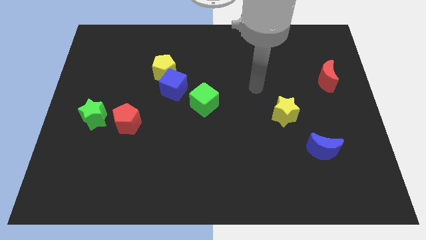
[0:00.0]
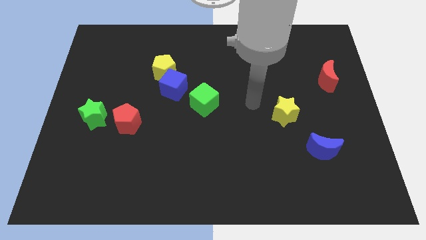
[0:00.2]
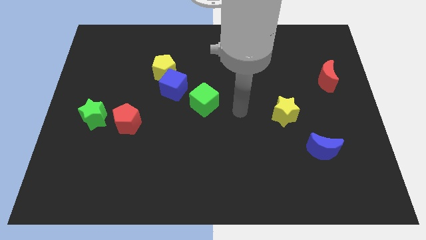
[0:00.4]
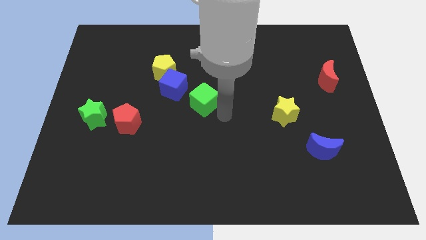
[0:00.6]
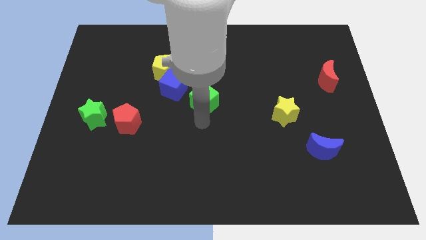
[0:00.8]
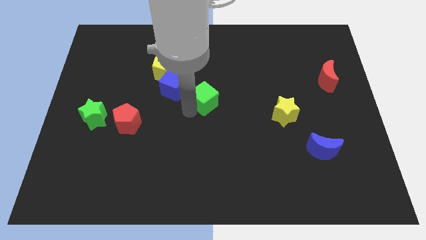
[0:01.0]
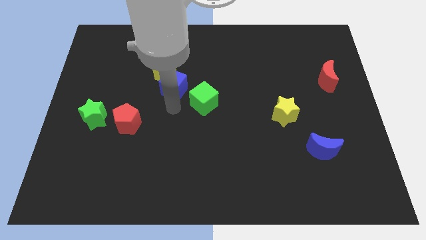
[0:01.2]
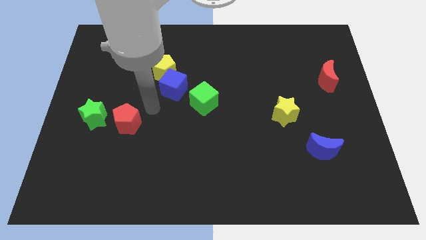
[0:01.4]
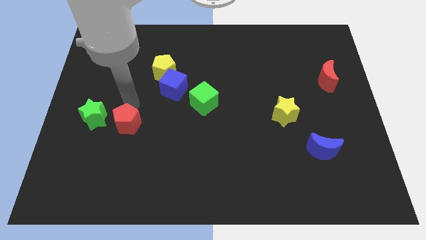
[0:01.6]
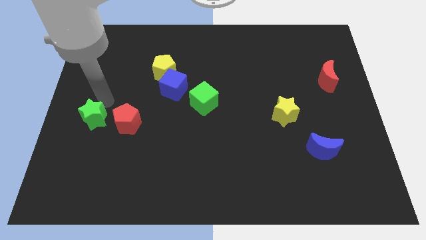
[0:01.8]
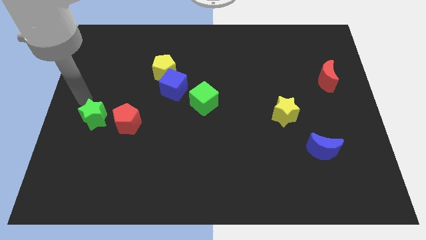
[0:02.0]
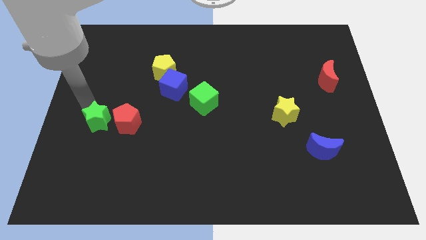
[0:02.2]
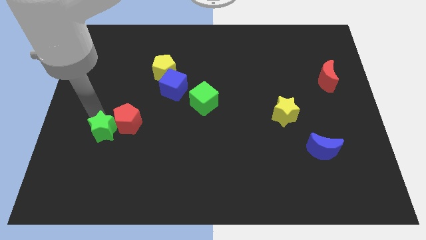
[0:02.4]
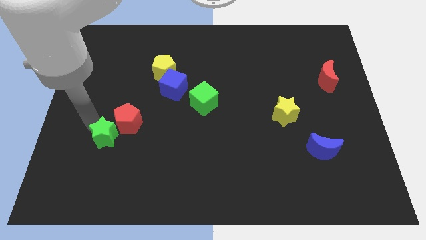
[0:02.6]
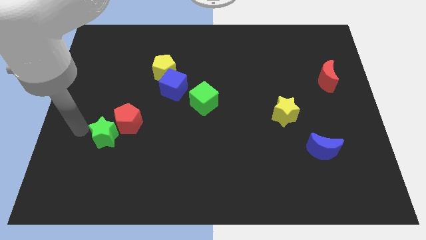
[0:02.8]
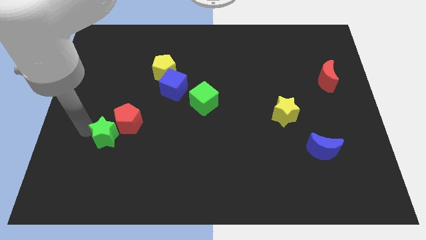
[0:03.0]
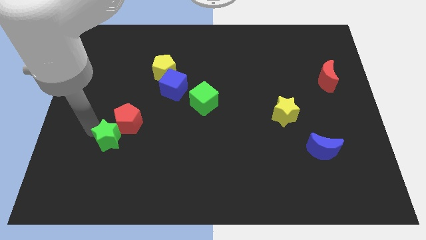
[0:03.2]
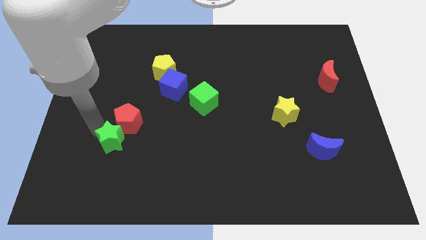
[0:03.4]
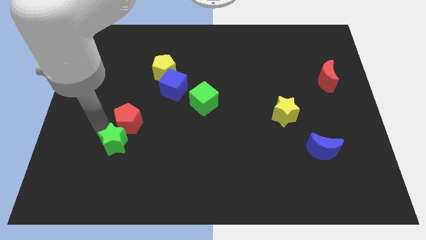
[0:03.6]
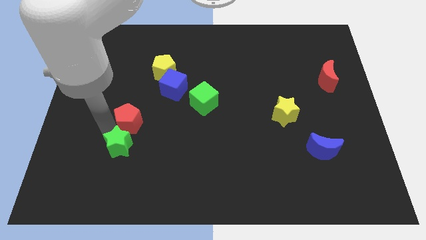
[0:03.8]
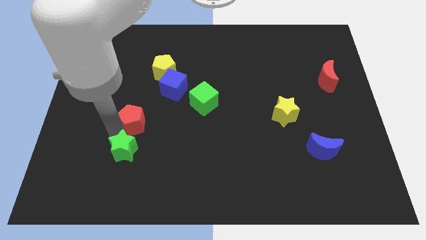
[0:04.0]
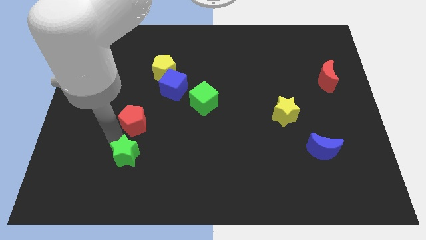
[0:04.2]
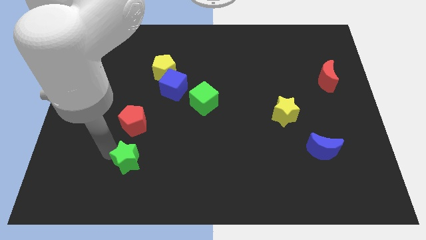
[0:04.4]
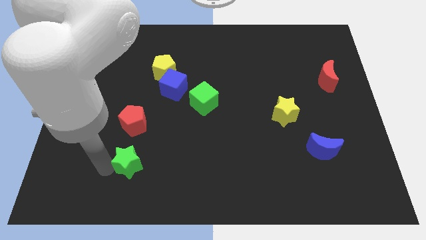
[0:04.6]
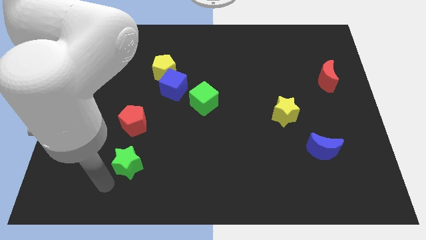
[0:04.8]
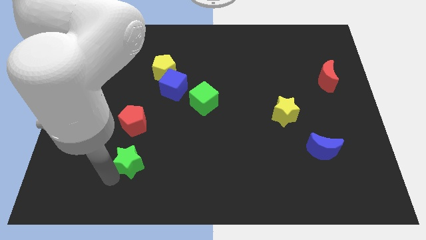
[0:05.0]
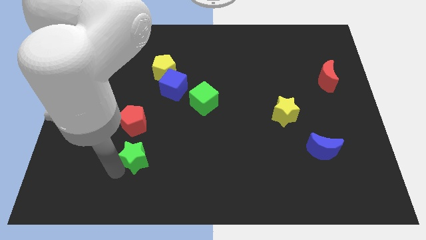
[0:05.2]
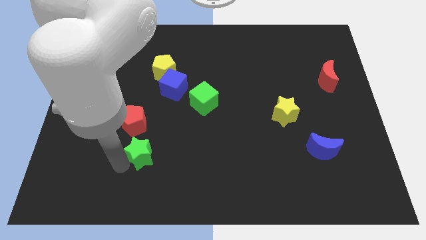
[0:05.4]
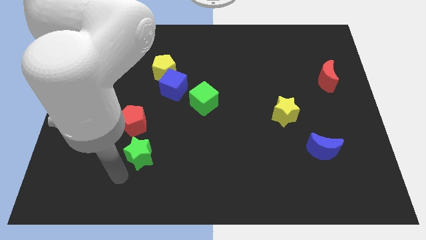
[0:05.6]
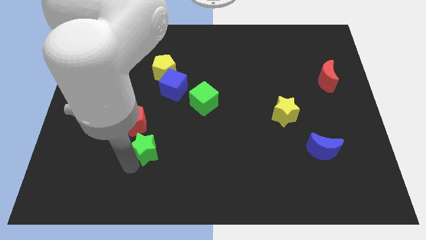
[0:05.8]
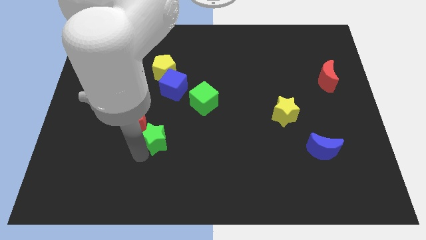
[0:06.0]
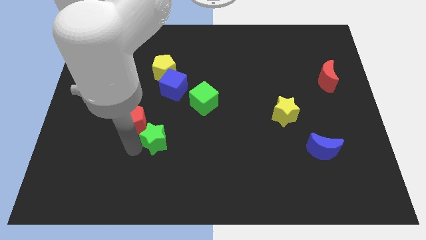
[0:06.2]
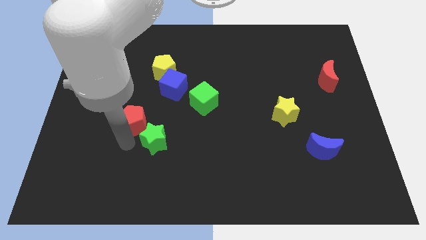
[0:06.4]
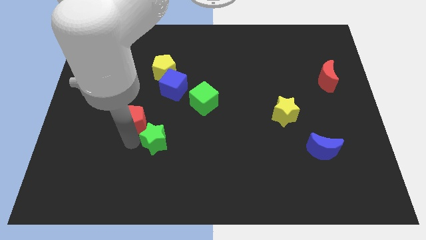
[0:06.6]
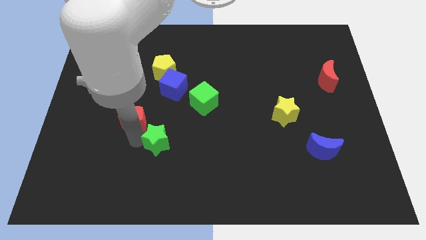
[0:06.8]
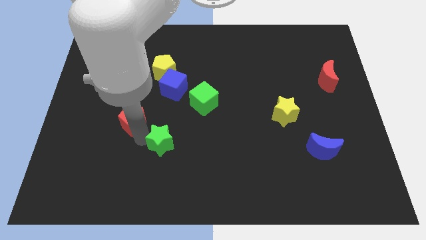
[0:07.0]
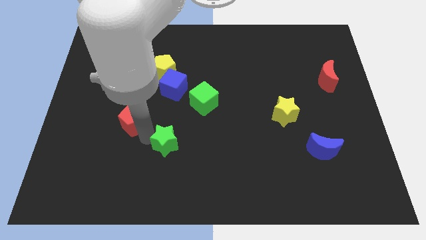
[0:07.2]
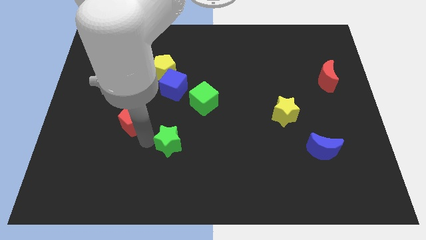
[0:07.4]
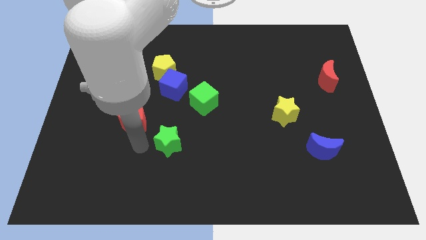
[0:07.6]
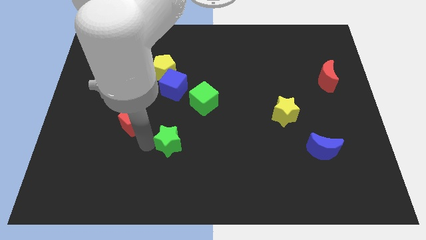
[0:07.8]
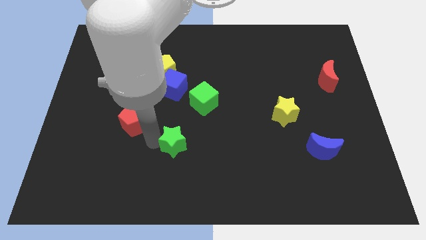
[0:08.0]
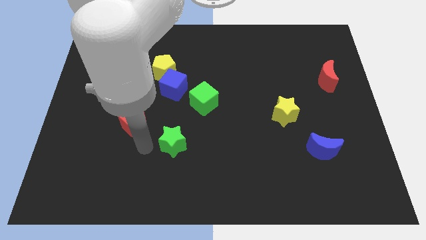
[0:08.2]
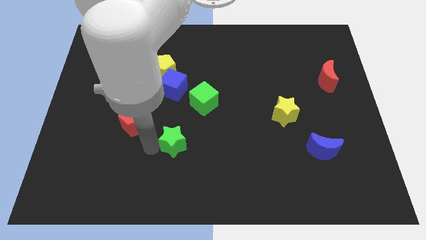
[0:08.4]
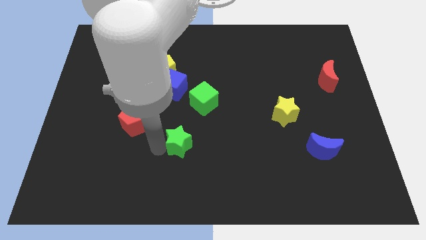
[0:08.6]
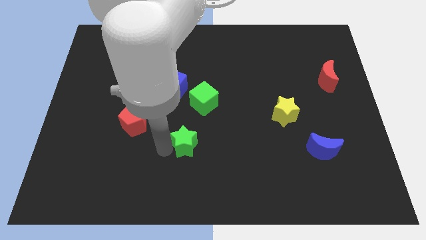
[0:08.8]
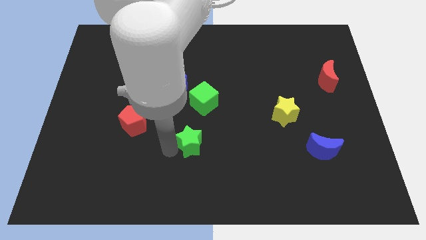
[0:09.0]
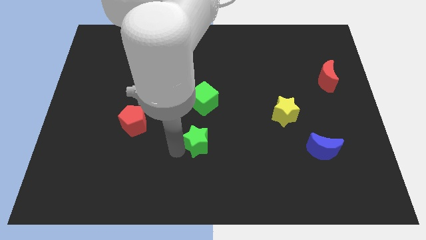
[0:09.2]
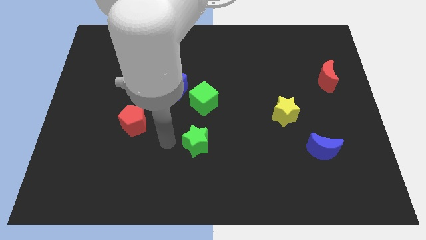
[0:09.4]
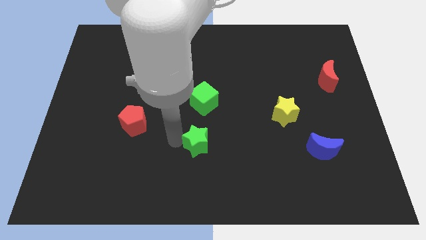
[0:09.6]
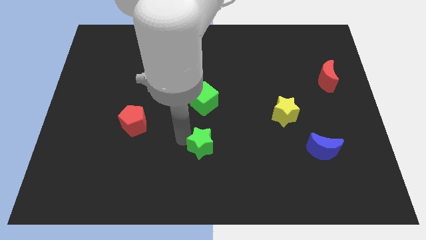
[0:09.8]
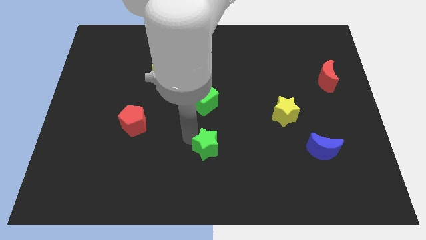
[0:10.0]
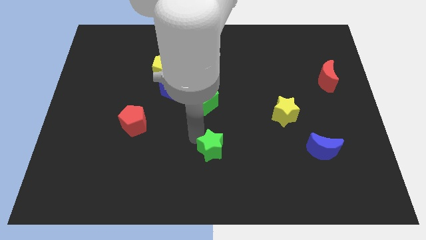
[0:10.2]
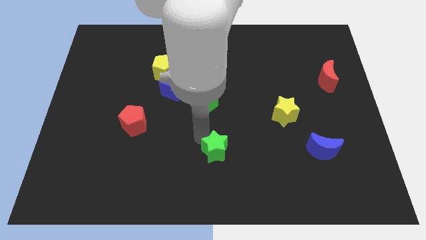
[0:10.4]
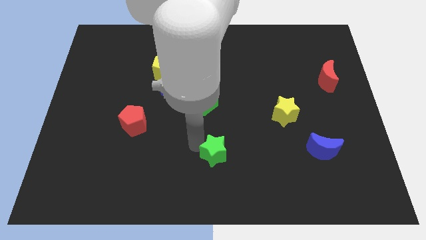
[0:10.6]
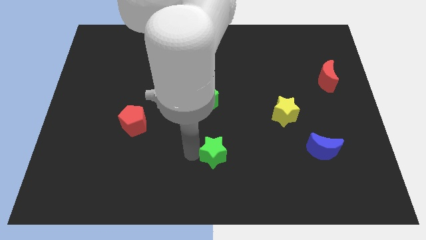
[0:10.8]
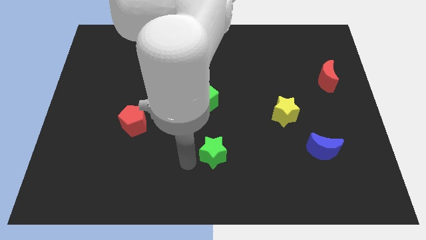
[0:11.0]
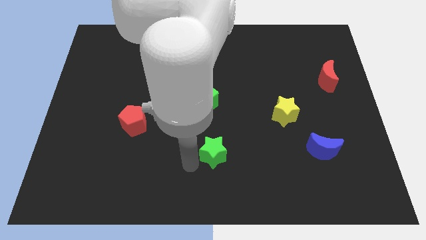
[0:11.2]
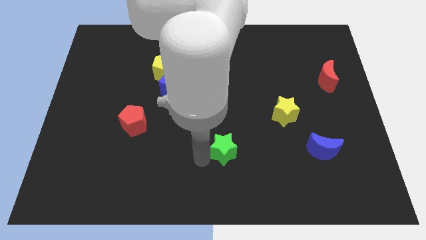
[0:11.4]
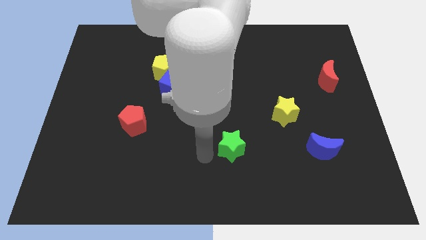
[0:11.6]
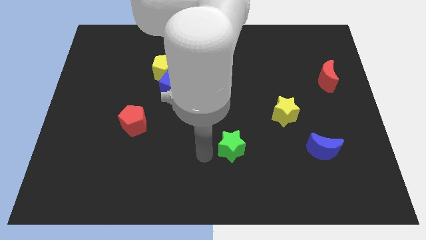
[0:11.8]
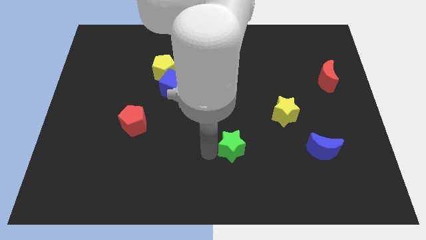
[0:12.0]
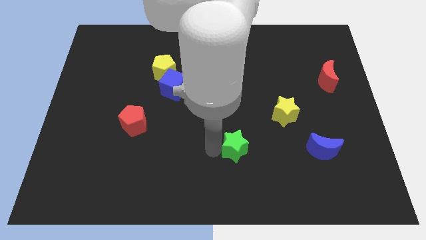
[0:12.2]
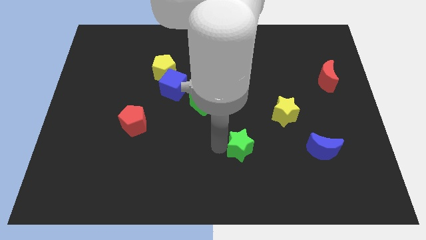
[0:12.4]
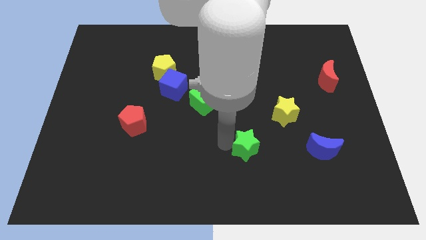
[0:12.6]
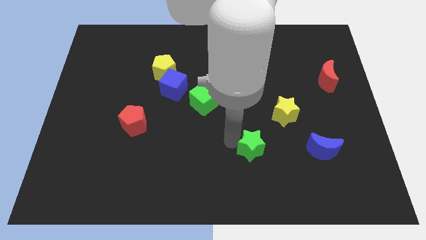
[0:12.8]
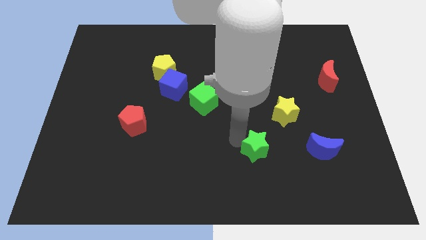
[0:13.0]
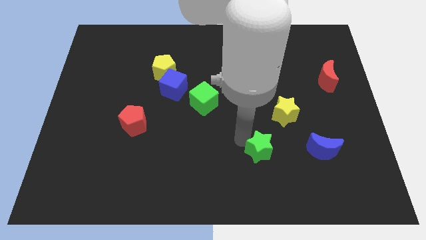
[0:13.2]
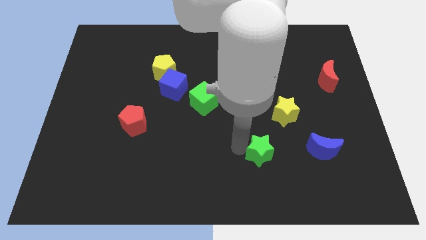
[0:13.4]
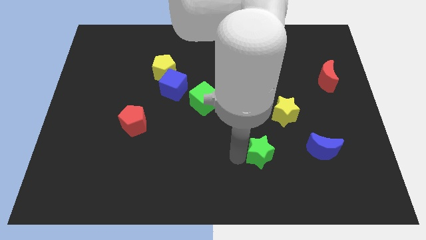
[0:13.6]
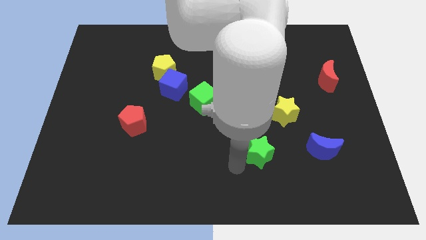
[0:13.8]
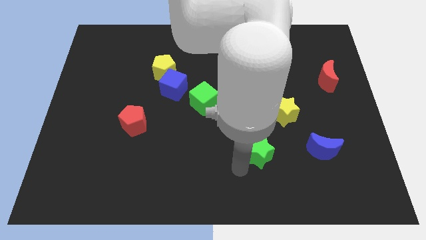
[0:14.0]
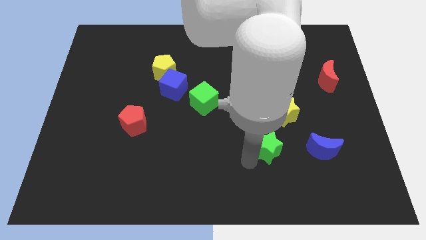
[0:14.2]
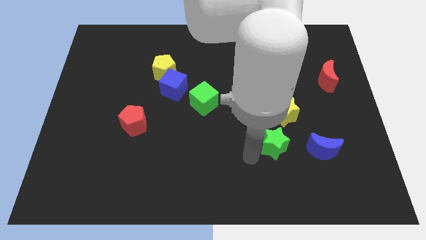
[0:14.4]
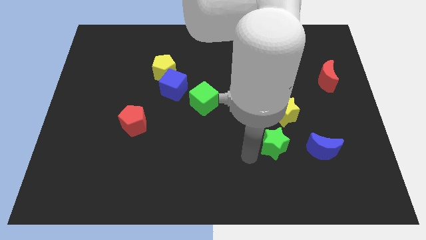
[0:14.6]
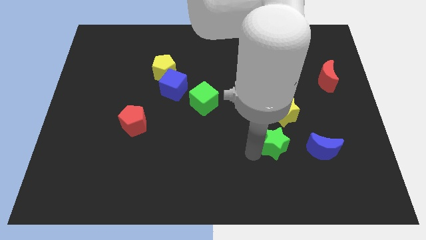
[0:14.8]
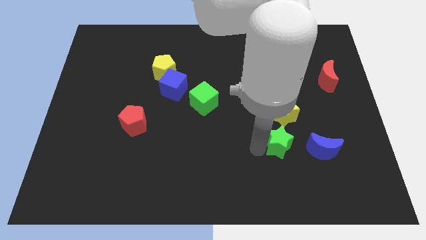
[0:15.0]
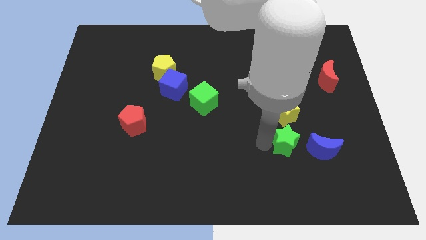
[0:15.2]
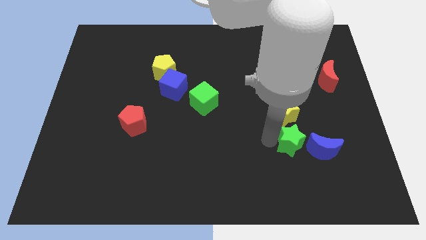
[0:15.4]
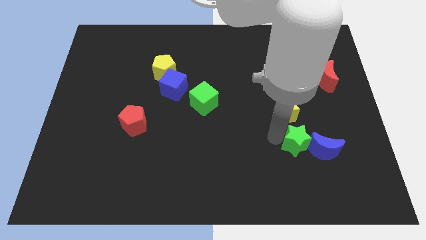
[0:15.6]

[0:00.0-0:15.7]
move the green star diagonally down and to the right of the yellow star
